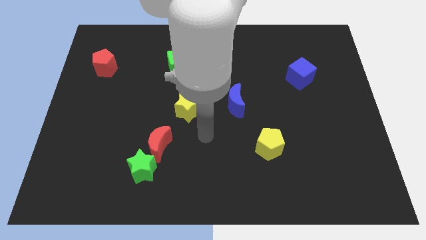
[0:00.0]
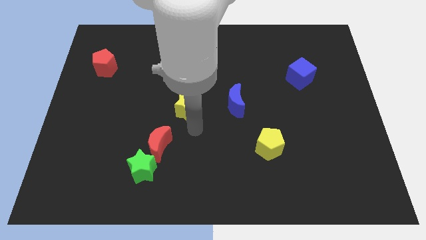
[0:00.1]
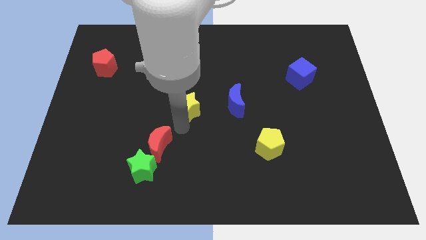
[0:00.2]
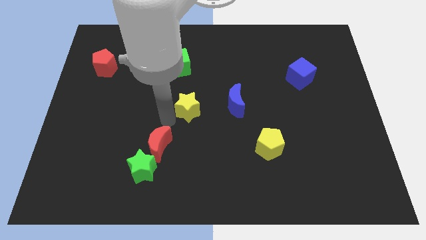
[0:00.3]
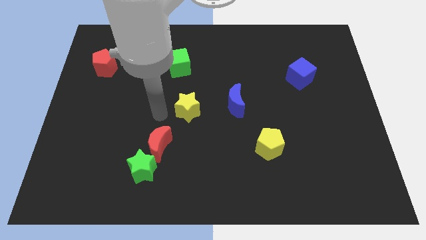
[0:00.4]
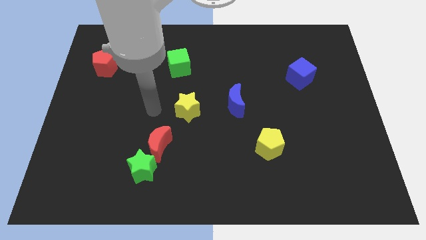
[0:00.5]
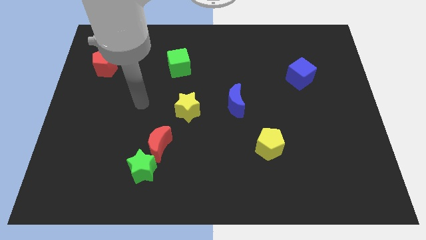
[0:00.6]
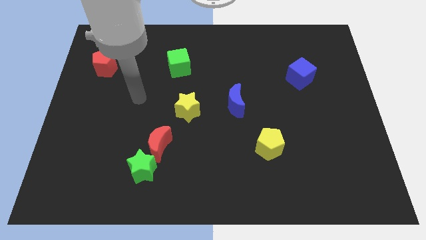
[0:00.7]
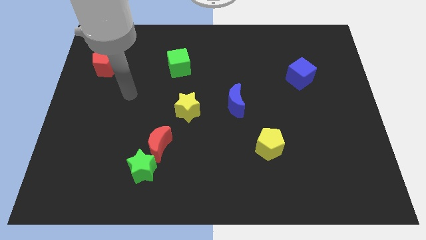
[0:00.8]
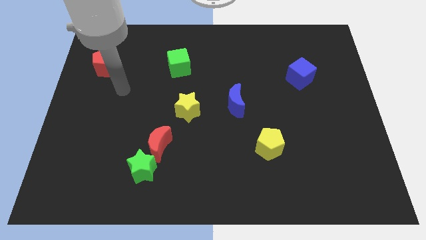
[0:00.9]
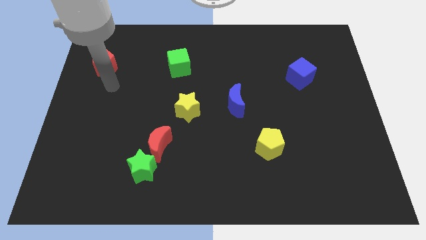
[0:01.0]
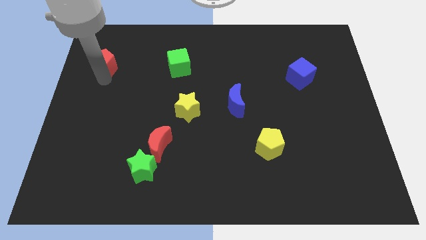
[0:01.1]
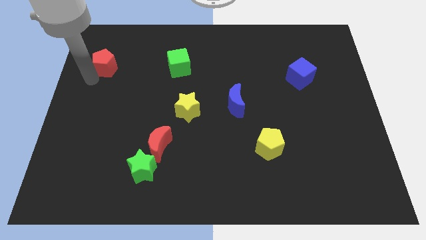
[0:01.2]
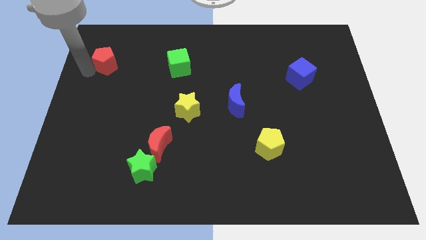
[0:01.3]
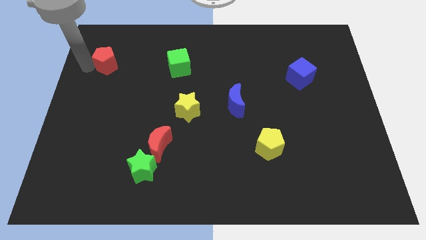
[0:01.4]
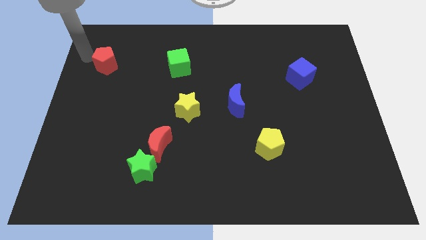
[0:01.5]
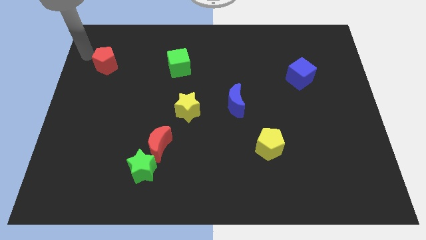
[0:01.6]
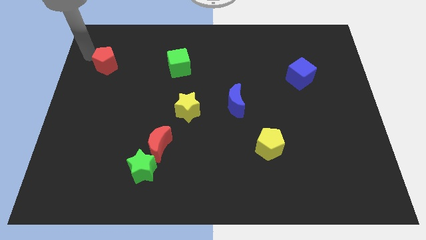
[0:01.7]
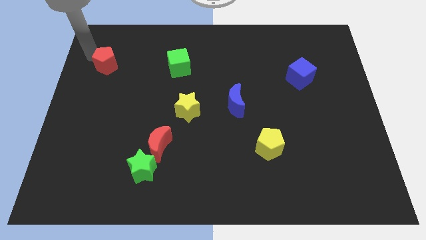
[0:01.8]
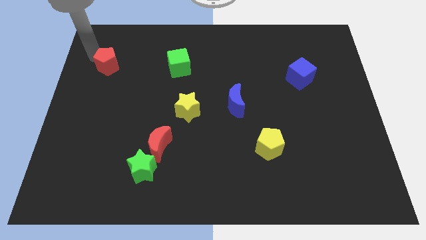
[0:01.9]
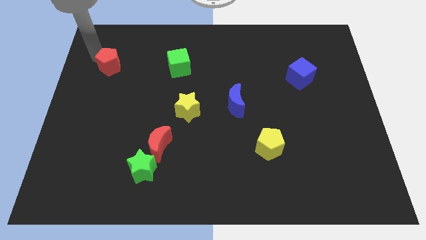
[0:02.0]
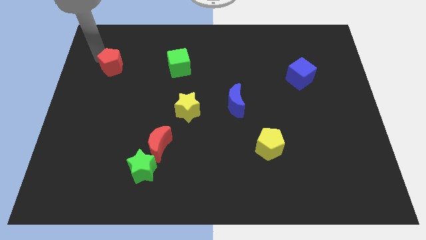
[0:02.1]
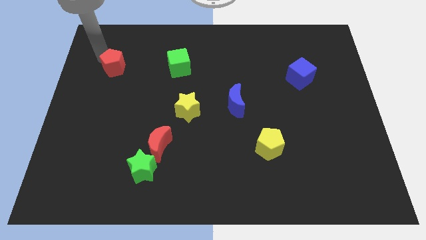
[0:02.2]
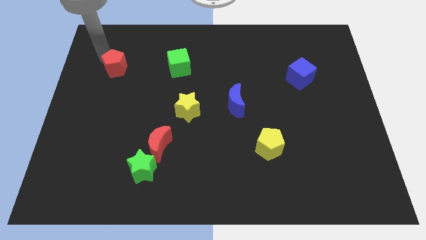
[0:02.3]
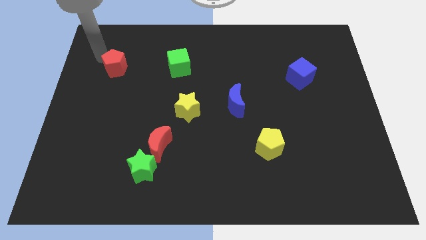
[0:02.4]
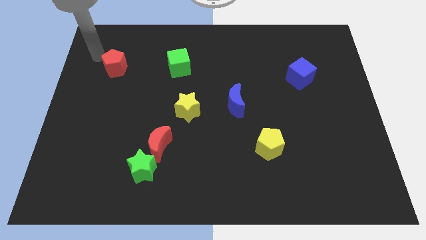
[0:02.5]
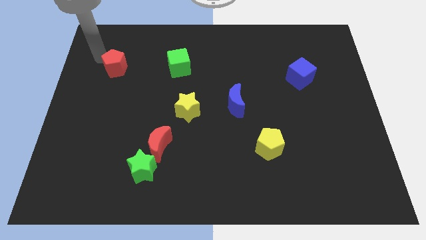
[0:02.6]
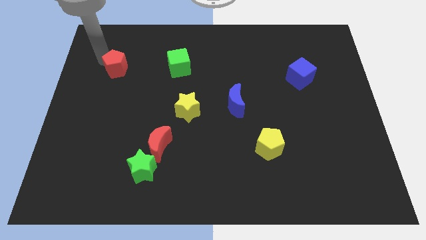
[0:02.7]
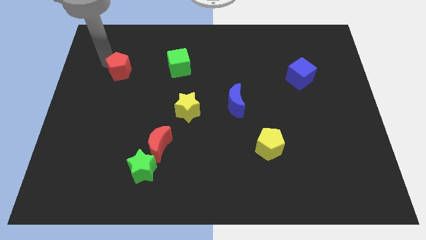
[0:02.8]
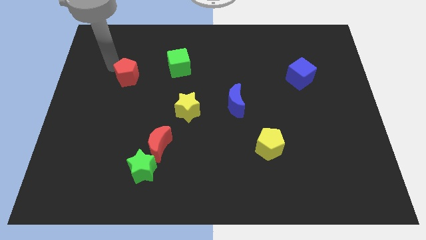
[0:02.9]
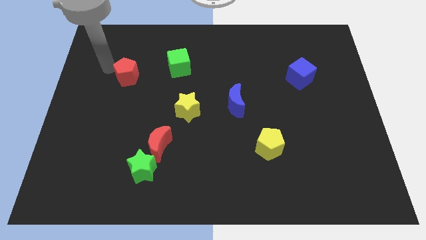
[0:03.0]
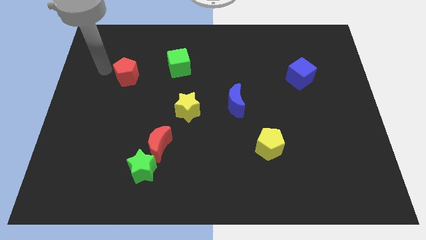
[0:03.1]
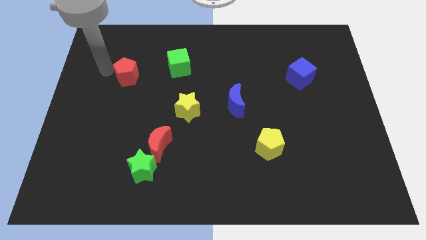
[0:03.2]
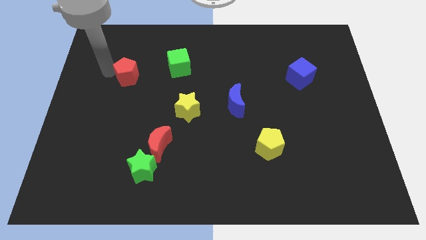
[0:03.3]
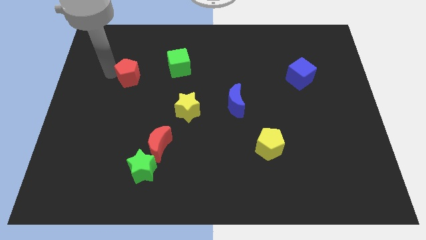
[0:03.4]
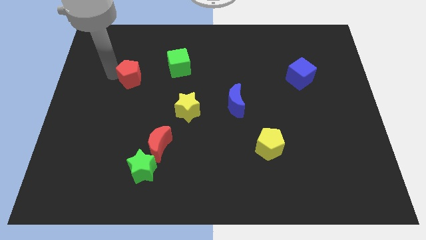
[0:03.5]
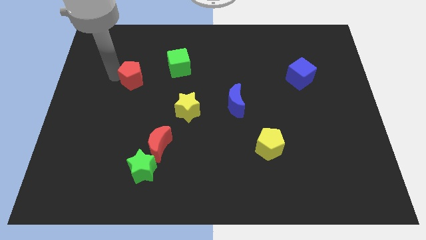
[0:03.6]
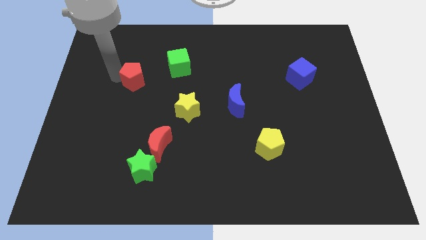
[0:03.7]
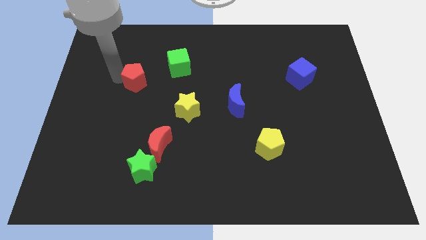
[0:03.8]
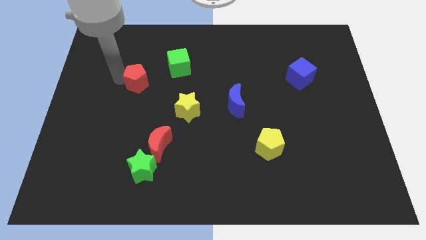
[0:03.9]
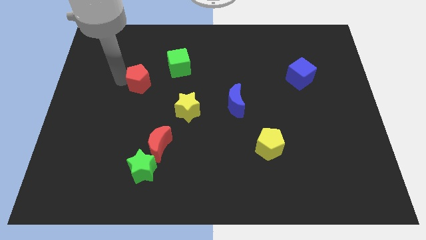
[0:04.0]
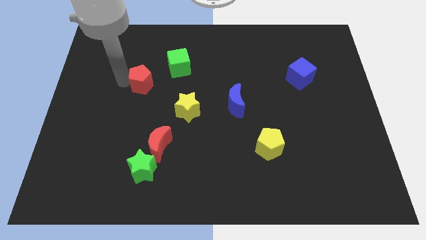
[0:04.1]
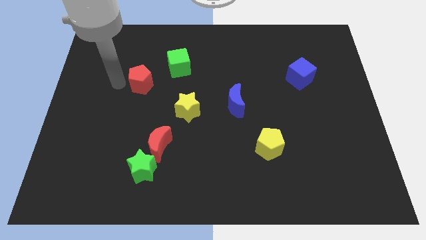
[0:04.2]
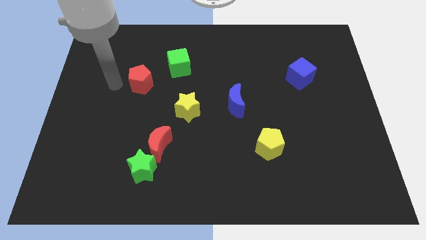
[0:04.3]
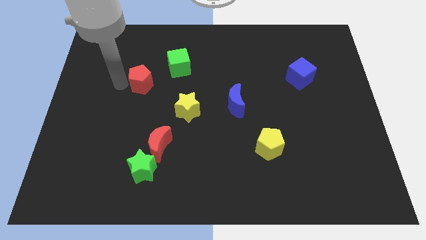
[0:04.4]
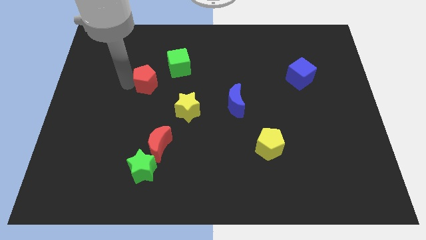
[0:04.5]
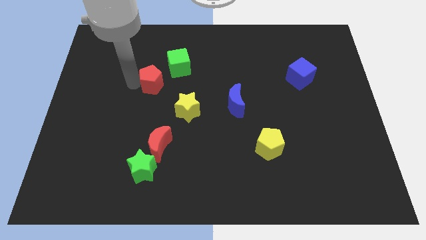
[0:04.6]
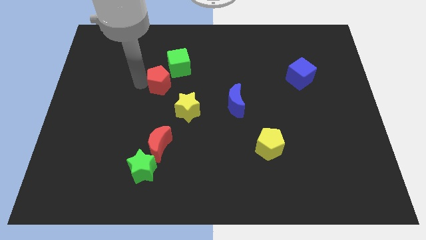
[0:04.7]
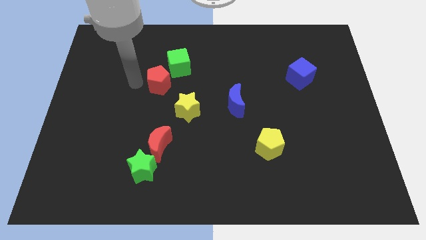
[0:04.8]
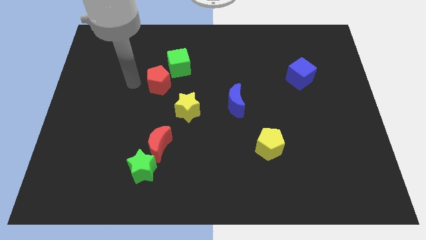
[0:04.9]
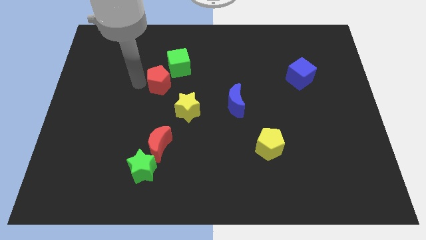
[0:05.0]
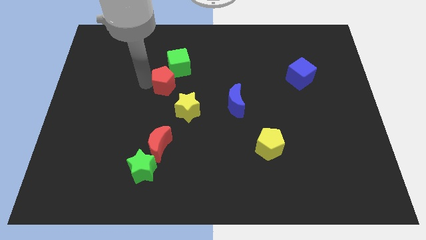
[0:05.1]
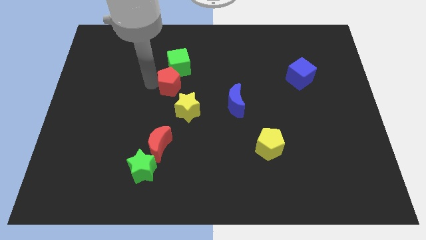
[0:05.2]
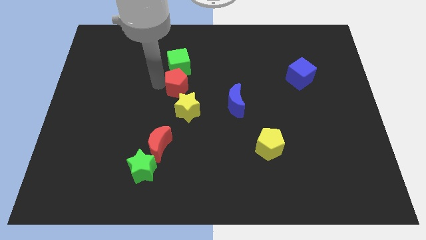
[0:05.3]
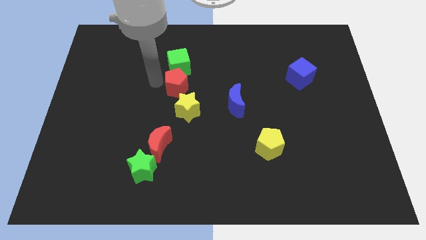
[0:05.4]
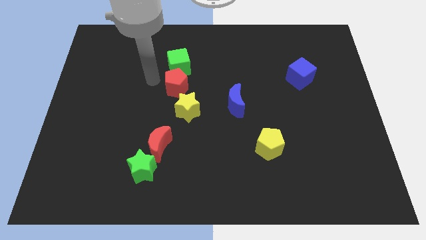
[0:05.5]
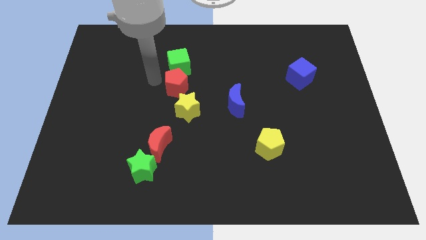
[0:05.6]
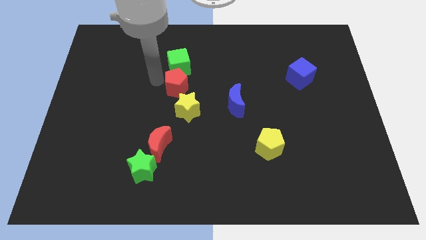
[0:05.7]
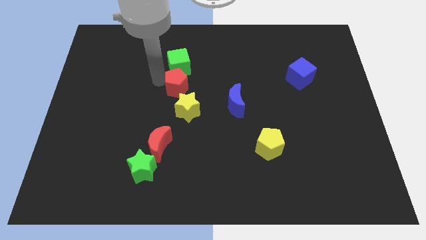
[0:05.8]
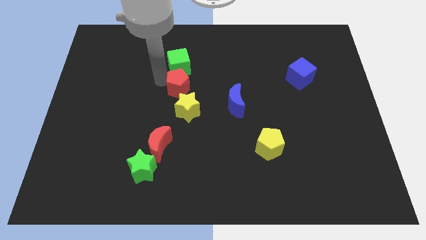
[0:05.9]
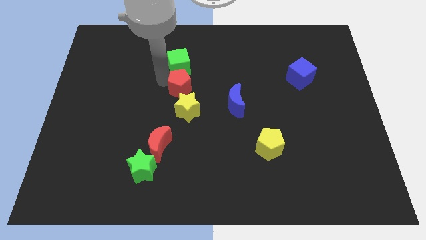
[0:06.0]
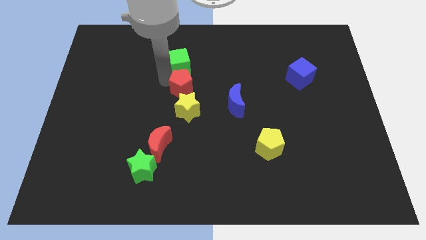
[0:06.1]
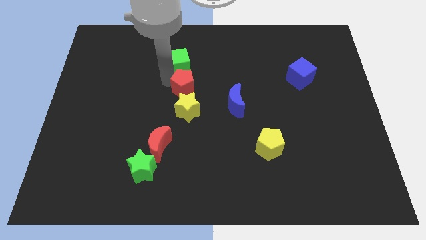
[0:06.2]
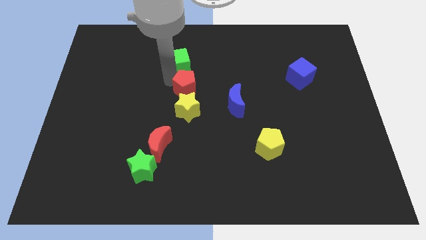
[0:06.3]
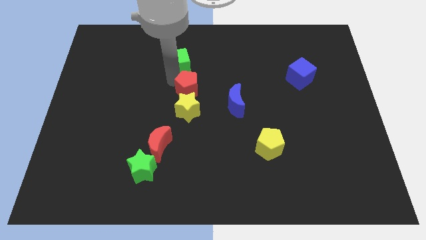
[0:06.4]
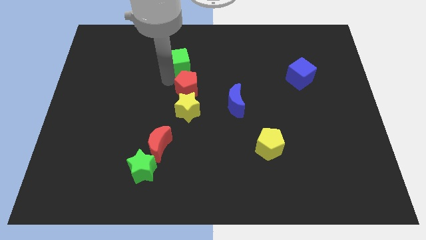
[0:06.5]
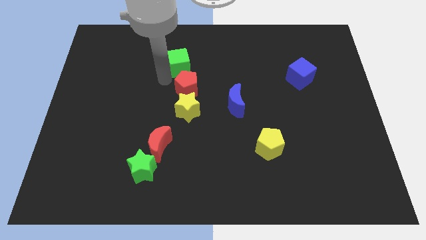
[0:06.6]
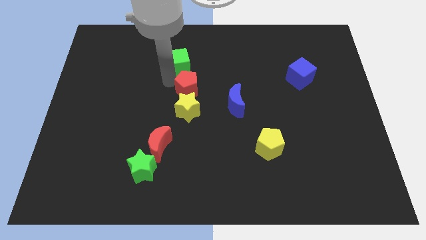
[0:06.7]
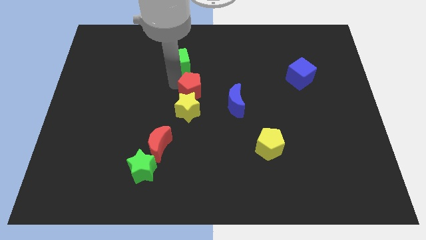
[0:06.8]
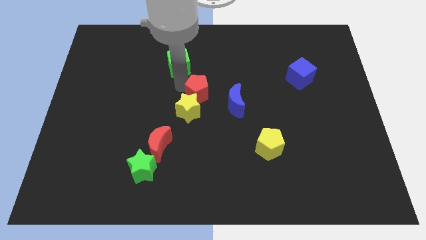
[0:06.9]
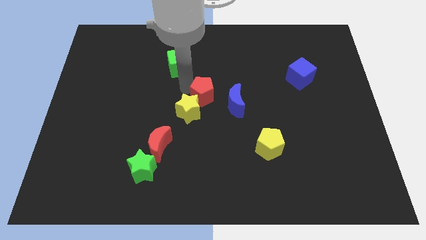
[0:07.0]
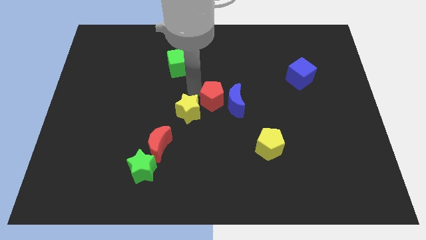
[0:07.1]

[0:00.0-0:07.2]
push the red pentagon next to the blue moon
